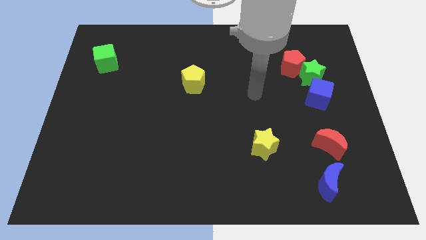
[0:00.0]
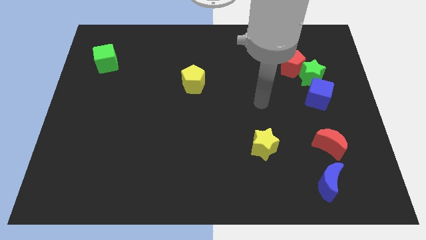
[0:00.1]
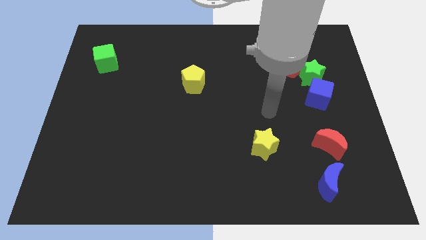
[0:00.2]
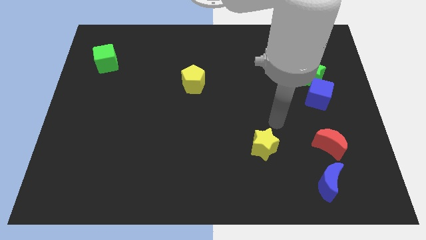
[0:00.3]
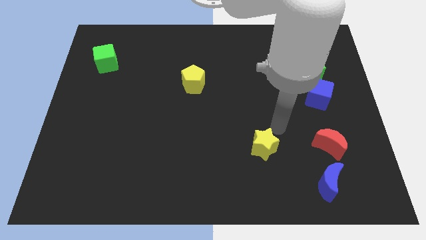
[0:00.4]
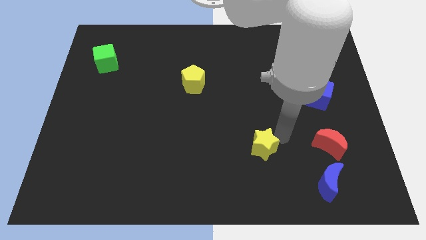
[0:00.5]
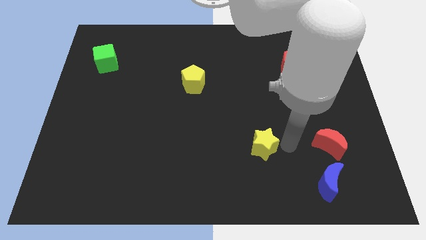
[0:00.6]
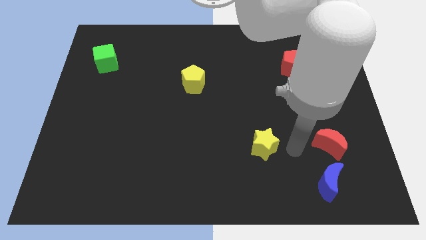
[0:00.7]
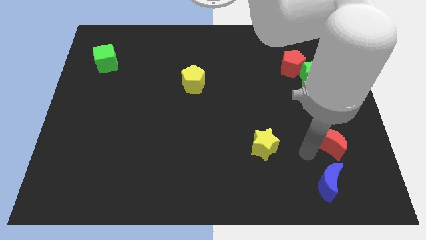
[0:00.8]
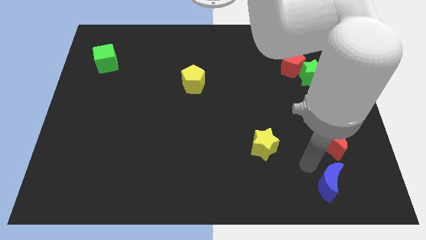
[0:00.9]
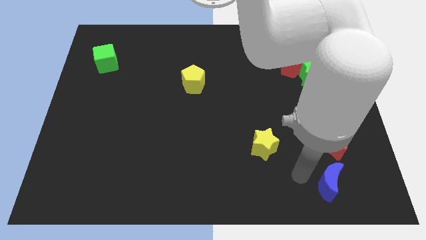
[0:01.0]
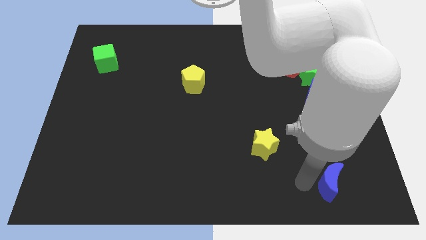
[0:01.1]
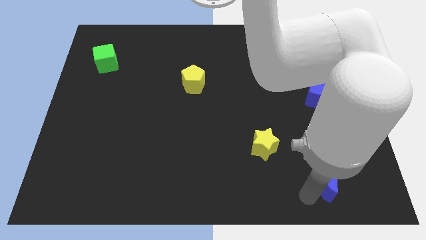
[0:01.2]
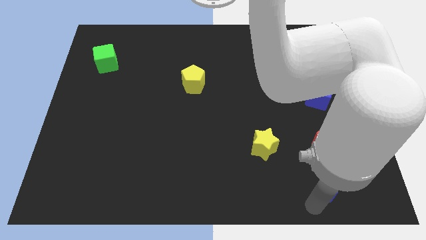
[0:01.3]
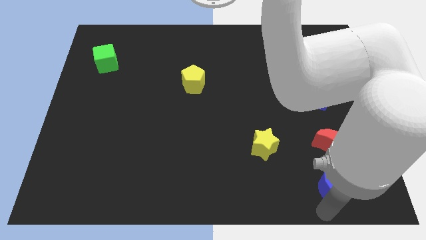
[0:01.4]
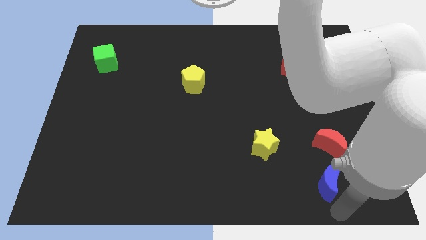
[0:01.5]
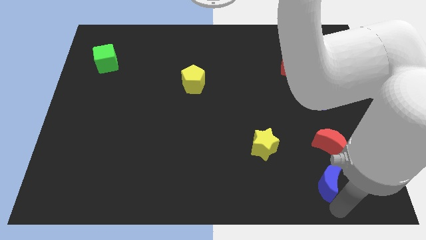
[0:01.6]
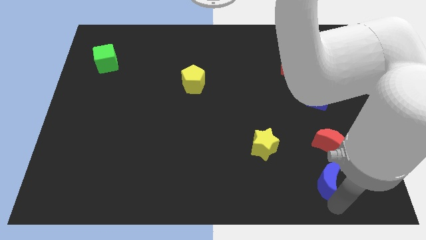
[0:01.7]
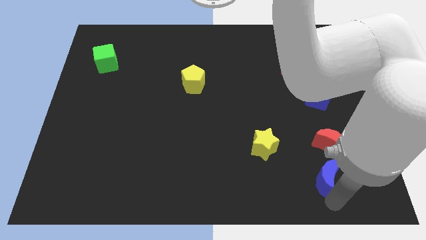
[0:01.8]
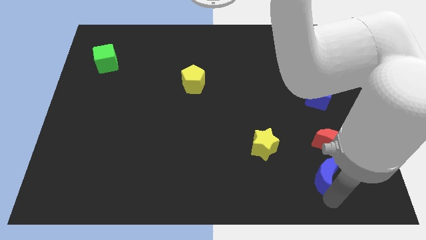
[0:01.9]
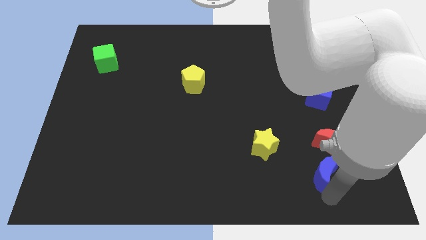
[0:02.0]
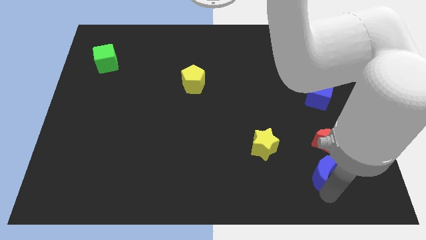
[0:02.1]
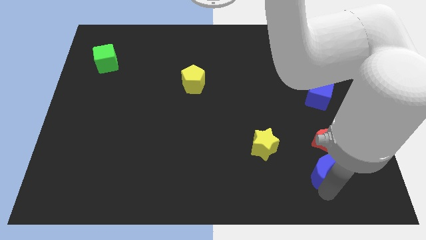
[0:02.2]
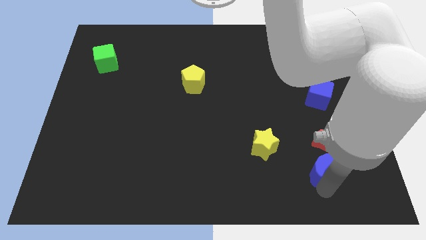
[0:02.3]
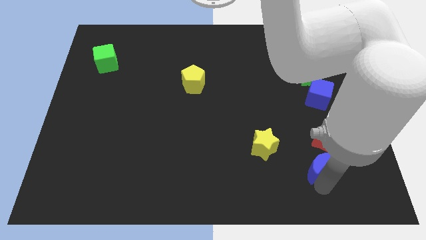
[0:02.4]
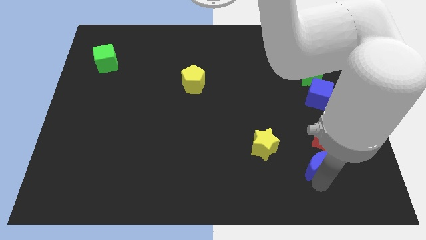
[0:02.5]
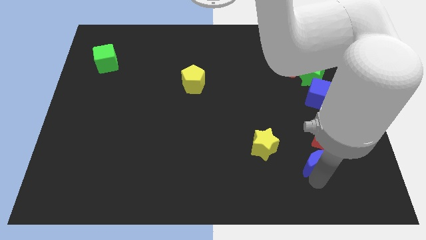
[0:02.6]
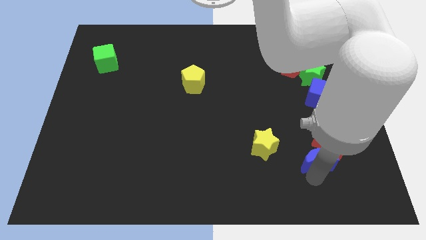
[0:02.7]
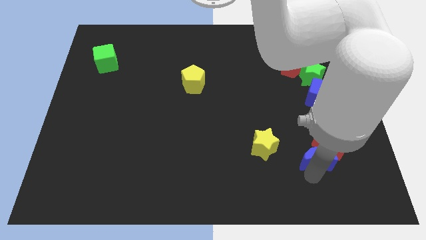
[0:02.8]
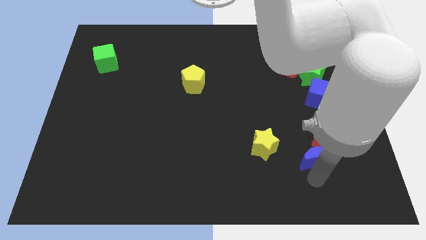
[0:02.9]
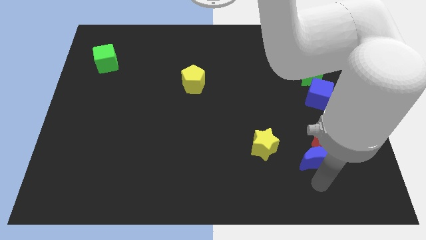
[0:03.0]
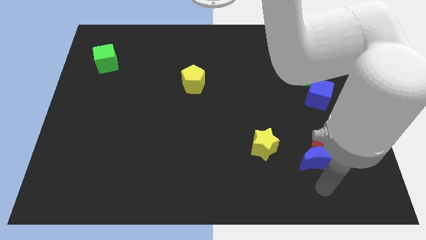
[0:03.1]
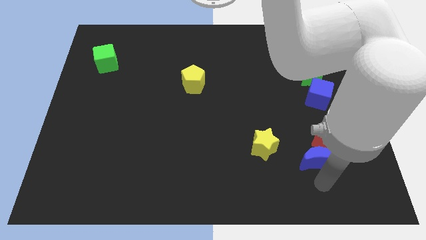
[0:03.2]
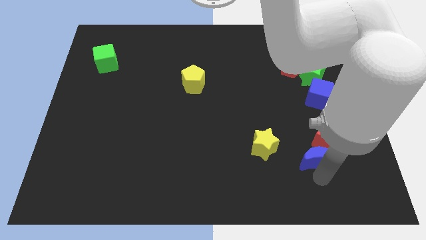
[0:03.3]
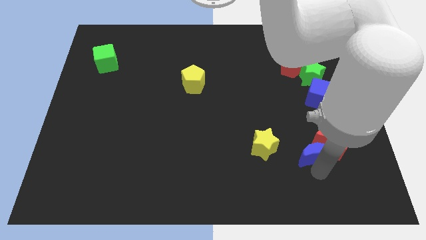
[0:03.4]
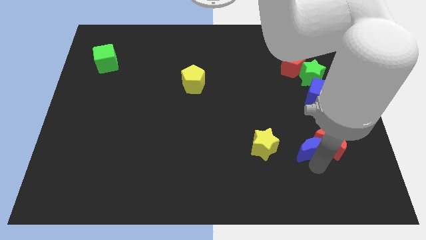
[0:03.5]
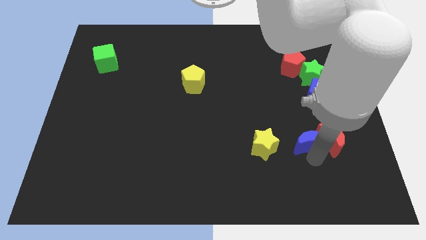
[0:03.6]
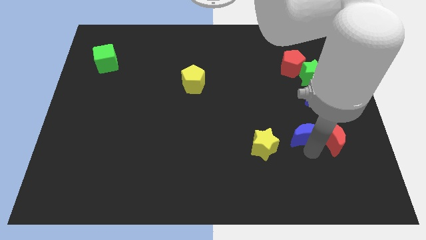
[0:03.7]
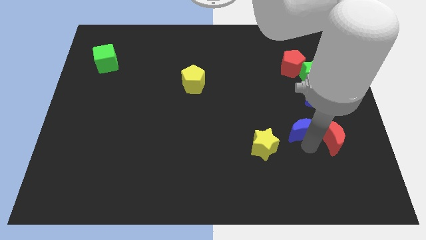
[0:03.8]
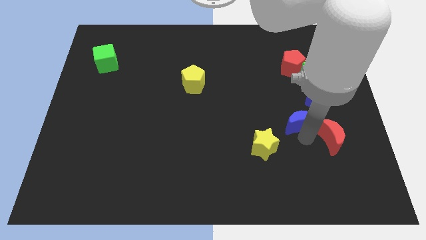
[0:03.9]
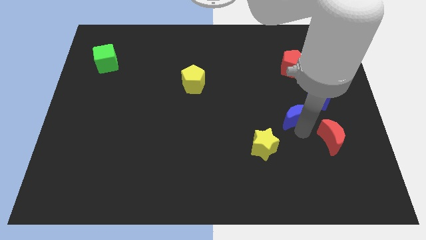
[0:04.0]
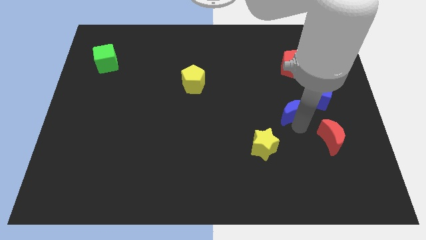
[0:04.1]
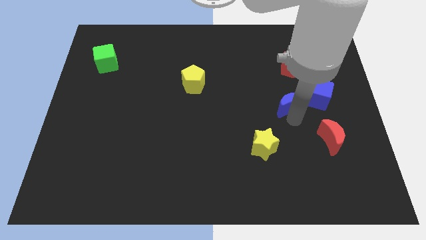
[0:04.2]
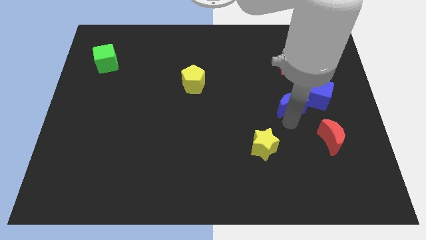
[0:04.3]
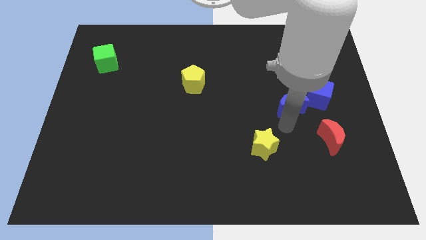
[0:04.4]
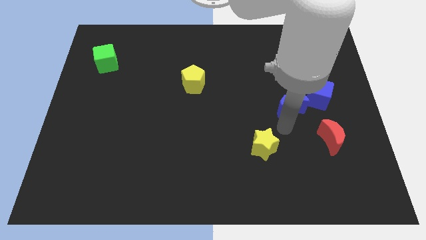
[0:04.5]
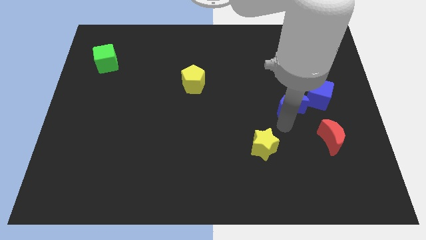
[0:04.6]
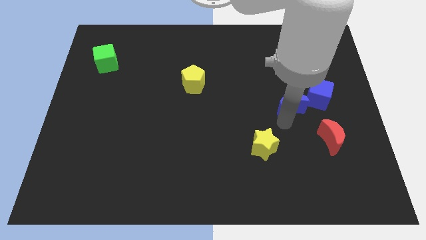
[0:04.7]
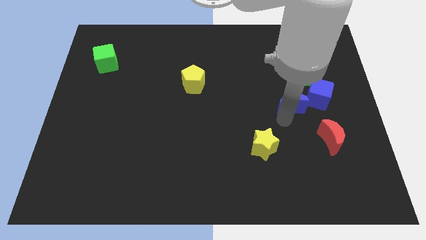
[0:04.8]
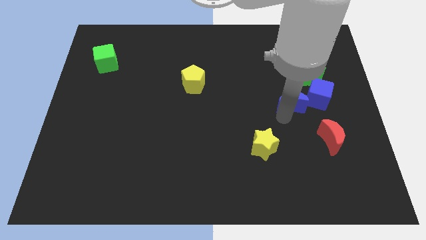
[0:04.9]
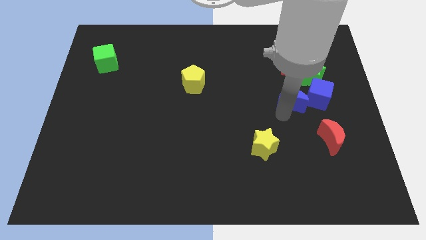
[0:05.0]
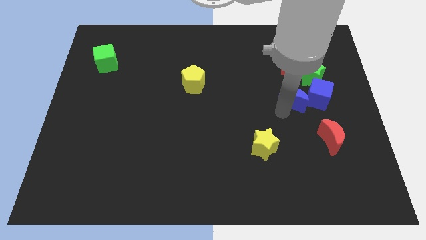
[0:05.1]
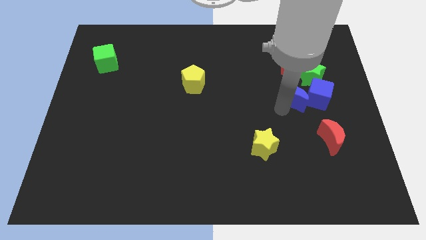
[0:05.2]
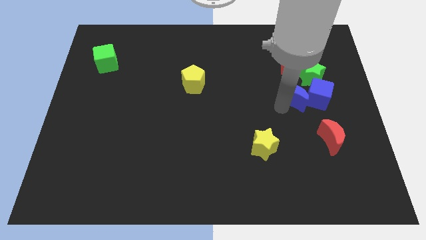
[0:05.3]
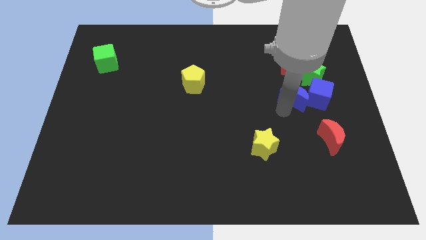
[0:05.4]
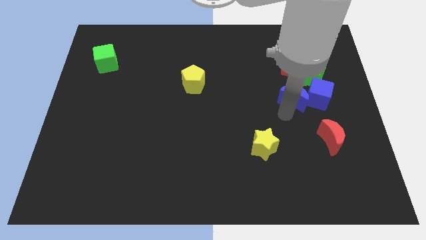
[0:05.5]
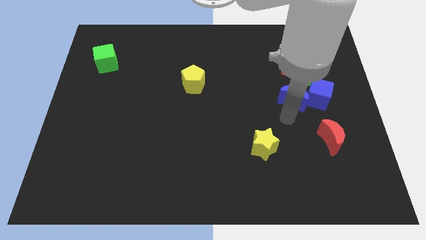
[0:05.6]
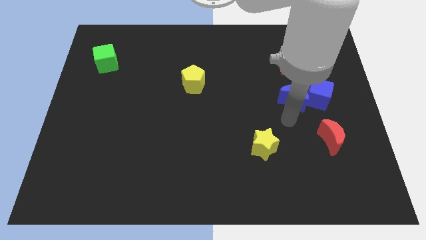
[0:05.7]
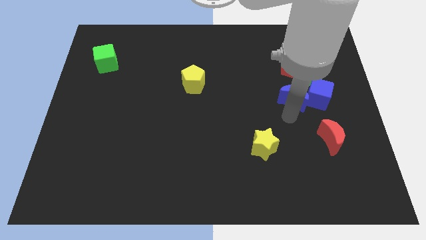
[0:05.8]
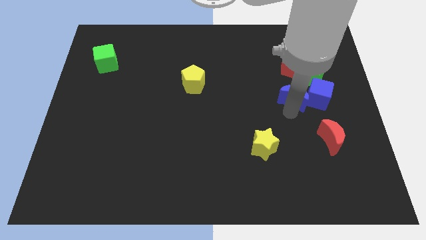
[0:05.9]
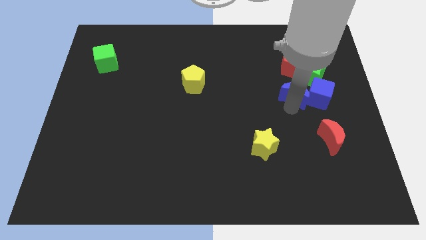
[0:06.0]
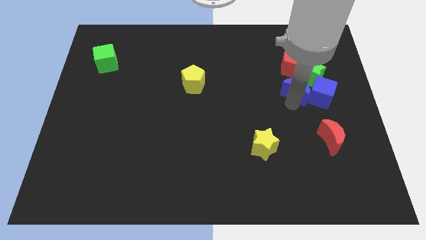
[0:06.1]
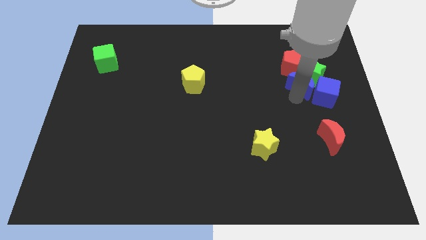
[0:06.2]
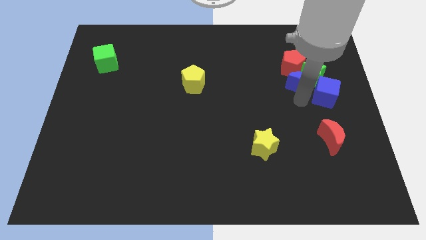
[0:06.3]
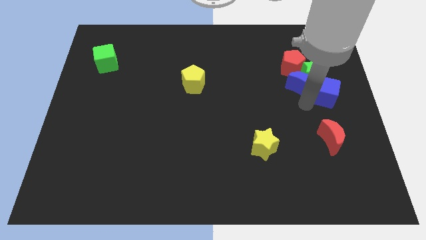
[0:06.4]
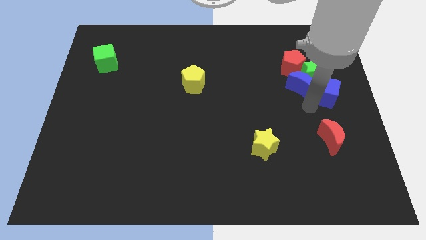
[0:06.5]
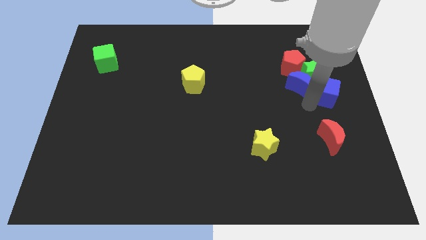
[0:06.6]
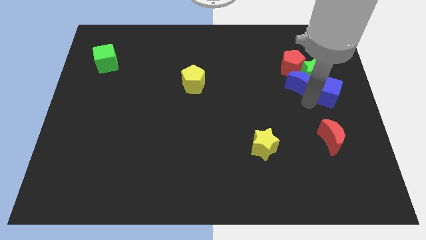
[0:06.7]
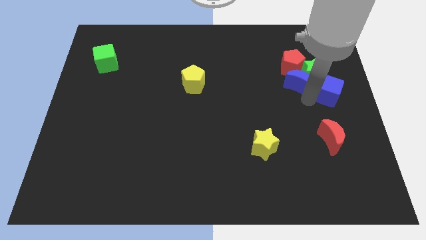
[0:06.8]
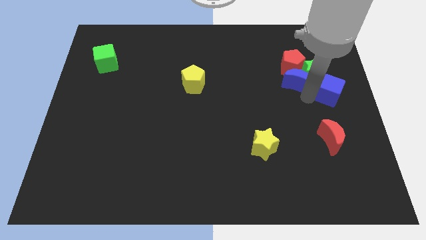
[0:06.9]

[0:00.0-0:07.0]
slide the blue moon to the red pentagon
